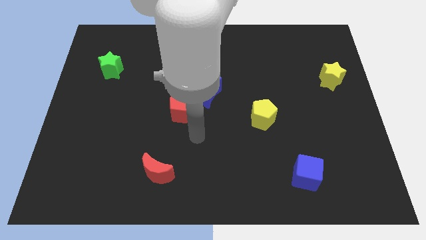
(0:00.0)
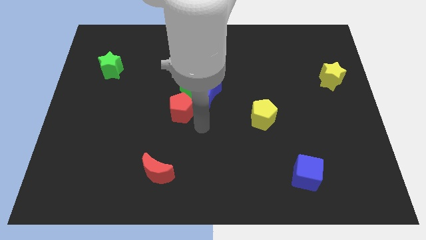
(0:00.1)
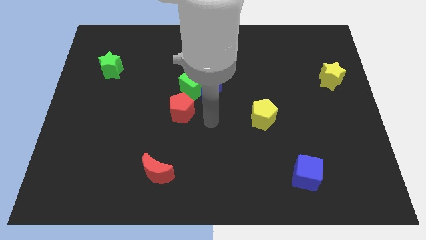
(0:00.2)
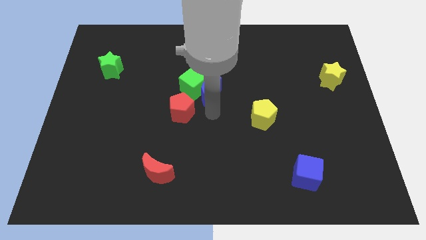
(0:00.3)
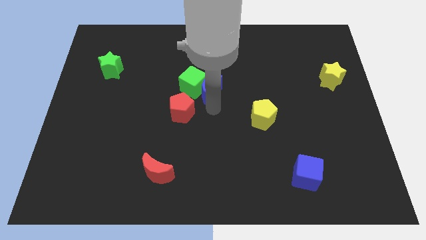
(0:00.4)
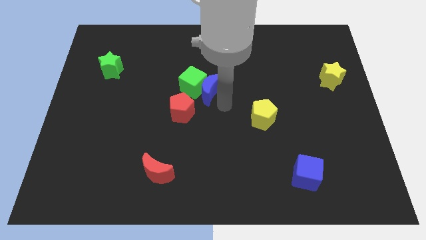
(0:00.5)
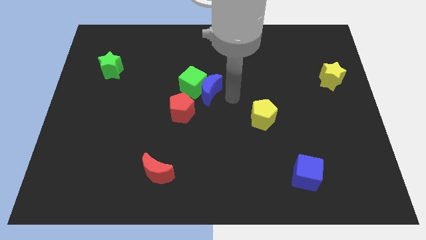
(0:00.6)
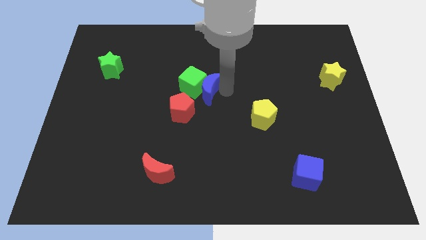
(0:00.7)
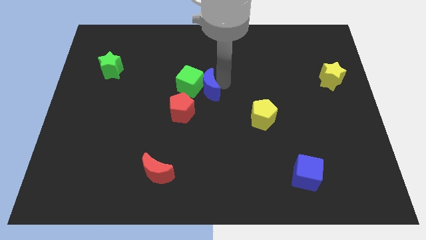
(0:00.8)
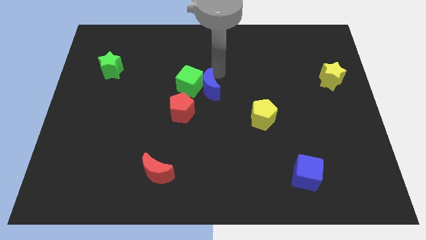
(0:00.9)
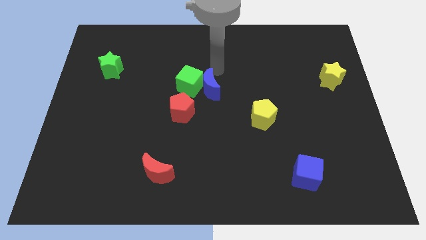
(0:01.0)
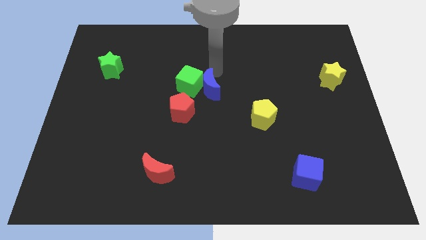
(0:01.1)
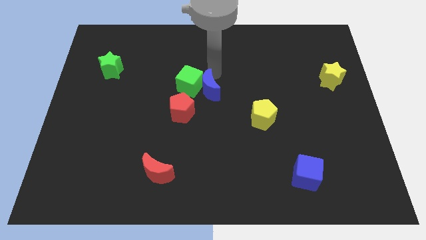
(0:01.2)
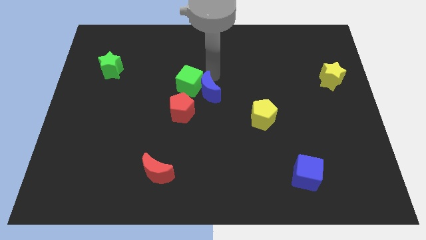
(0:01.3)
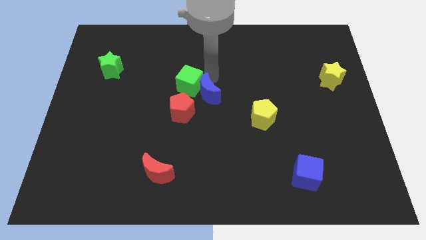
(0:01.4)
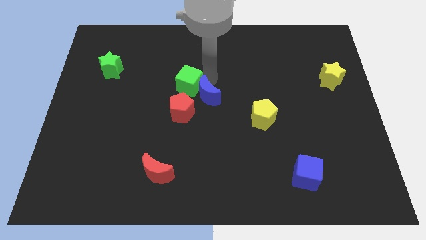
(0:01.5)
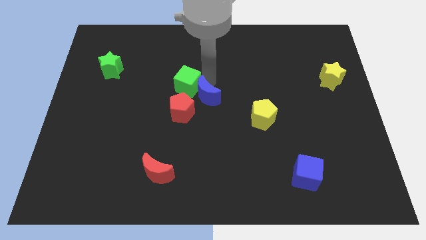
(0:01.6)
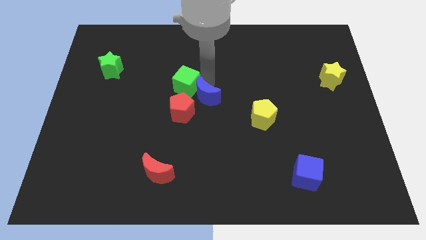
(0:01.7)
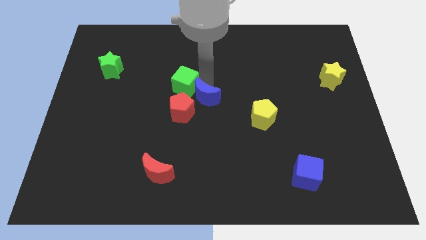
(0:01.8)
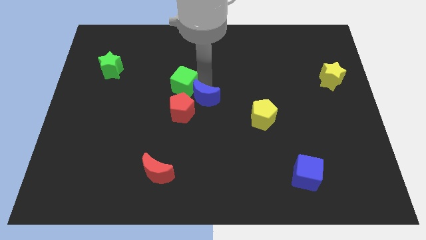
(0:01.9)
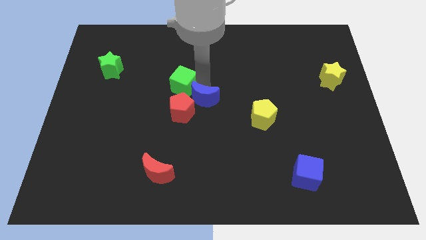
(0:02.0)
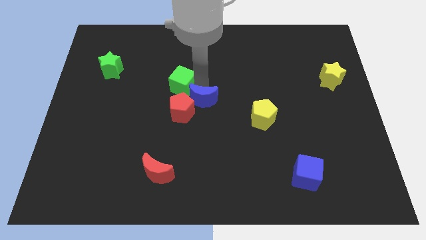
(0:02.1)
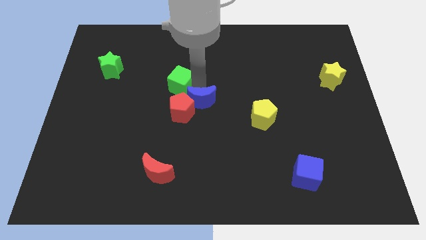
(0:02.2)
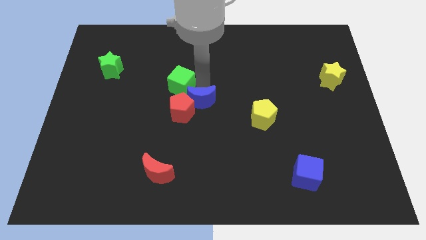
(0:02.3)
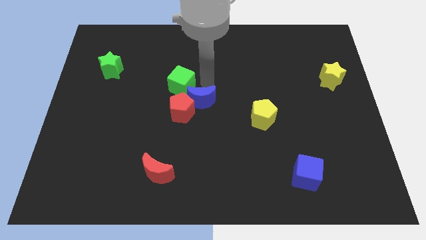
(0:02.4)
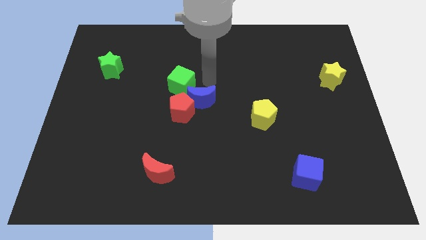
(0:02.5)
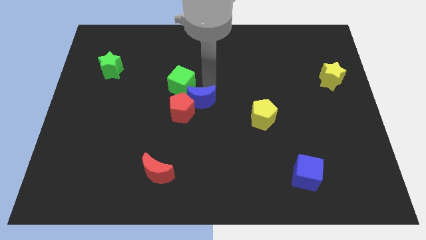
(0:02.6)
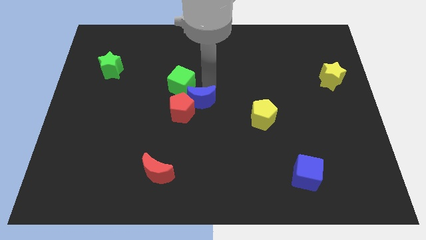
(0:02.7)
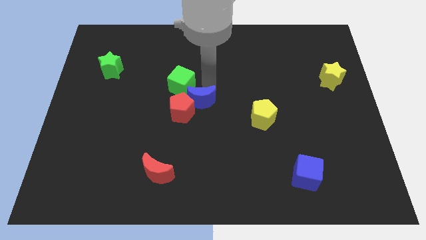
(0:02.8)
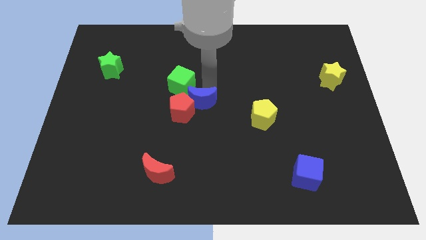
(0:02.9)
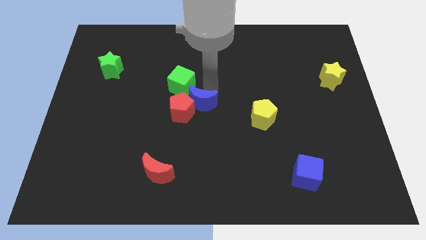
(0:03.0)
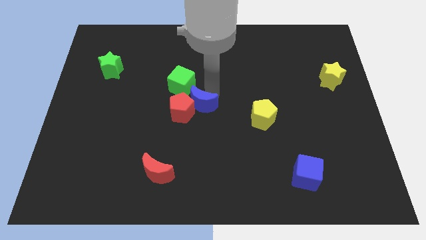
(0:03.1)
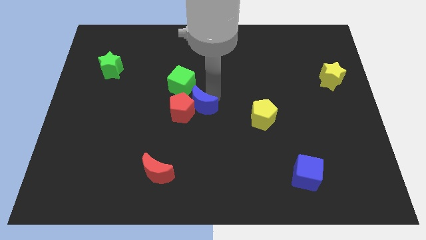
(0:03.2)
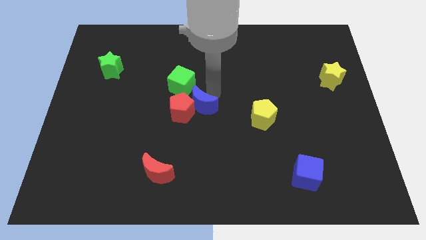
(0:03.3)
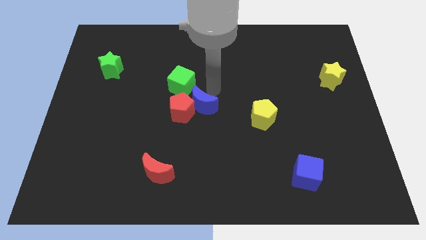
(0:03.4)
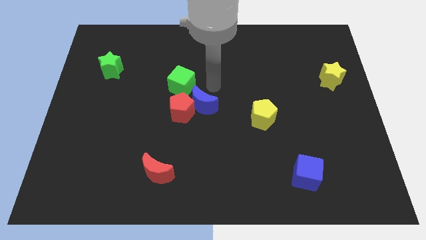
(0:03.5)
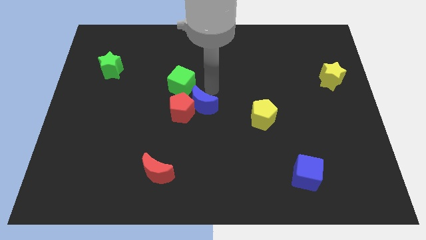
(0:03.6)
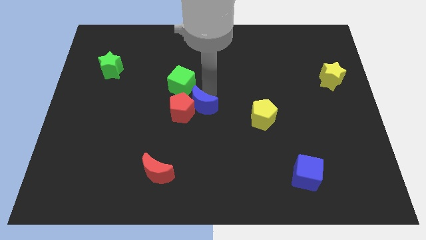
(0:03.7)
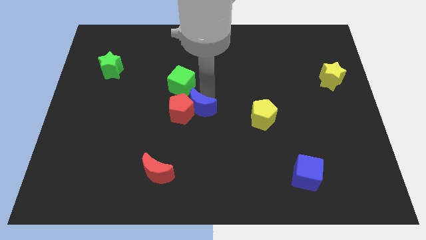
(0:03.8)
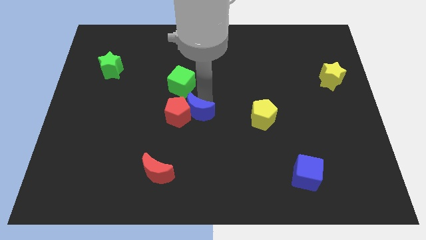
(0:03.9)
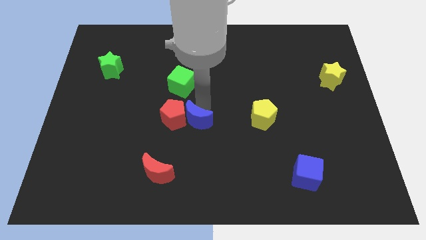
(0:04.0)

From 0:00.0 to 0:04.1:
push the blue moon a little bit diagonally downwards and left

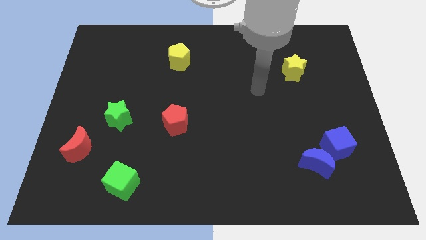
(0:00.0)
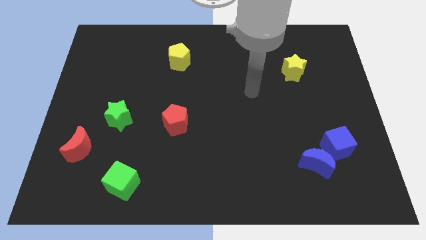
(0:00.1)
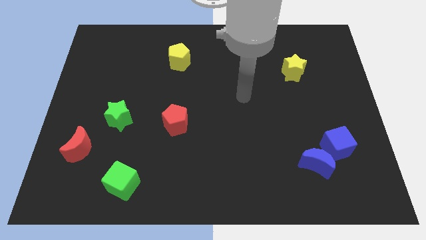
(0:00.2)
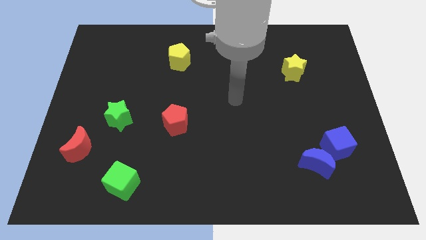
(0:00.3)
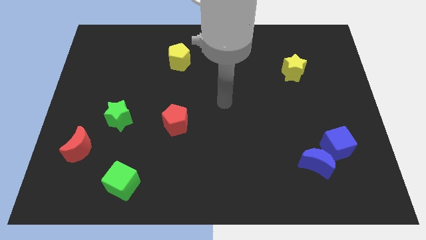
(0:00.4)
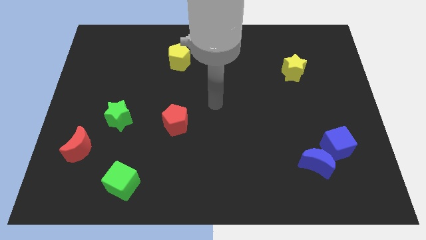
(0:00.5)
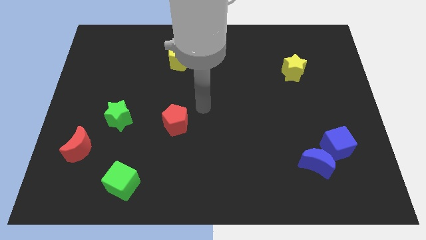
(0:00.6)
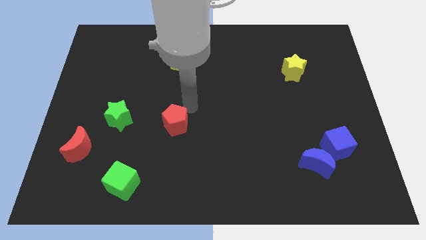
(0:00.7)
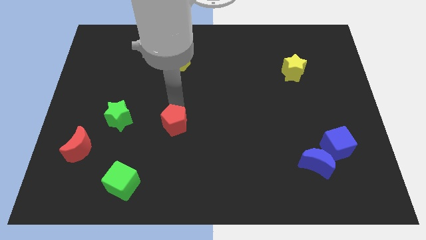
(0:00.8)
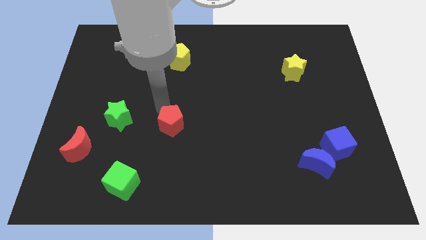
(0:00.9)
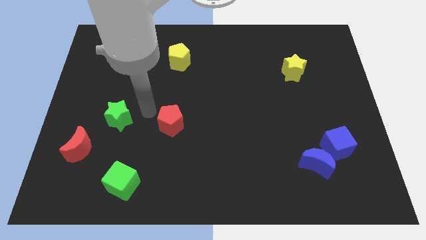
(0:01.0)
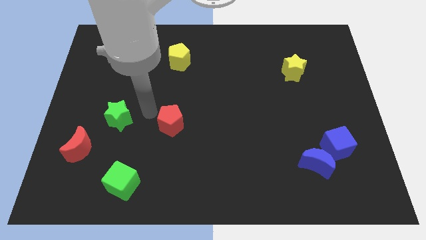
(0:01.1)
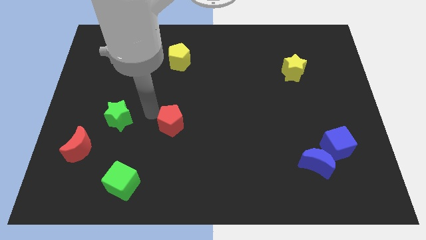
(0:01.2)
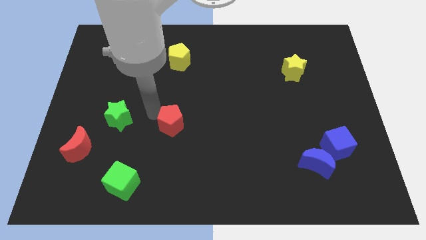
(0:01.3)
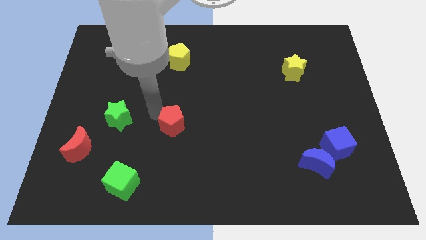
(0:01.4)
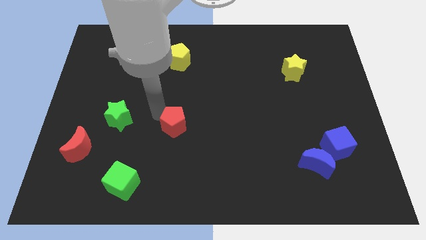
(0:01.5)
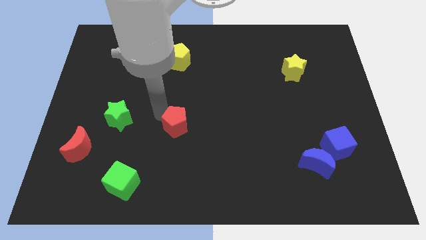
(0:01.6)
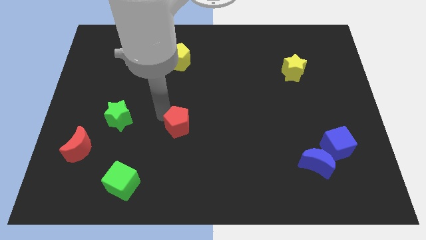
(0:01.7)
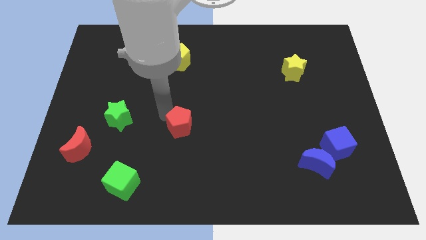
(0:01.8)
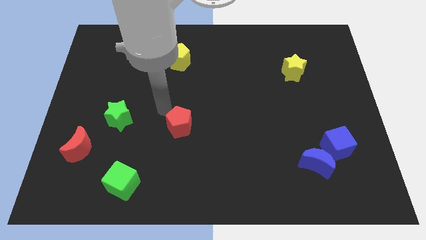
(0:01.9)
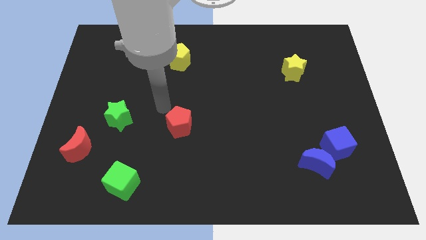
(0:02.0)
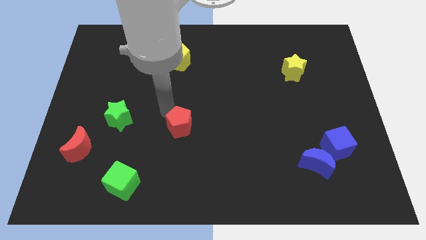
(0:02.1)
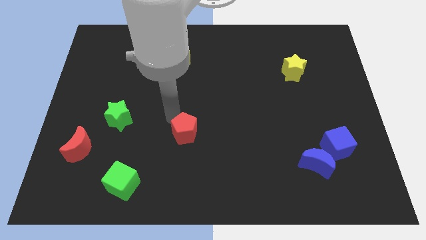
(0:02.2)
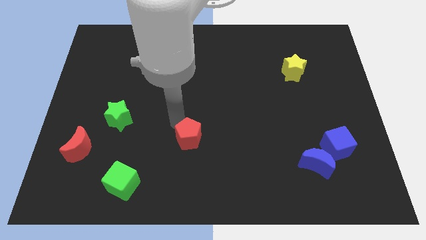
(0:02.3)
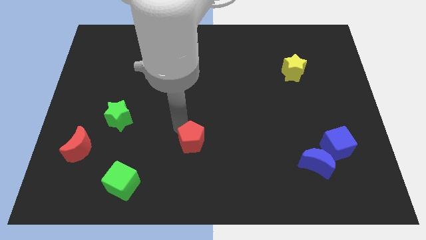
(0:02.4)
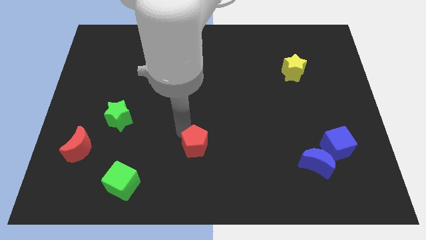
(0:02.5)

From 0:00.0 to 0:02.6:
push the red pentagon down and to the right diagonally a little

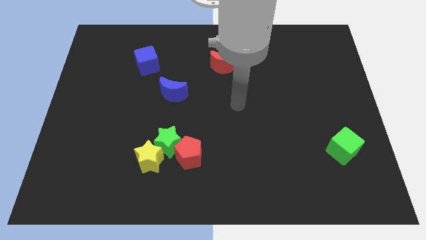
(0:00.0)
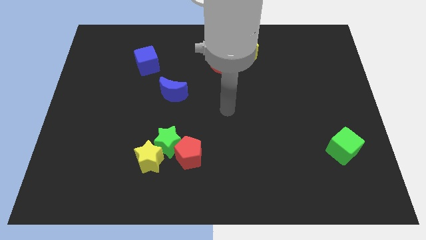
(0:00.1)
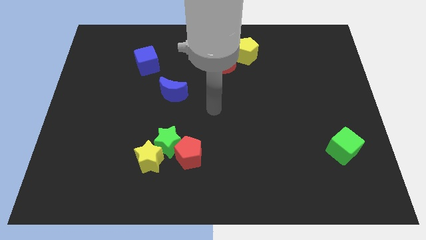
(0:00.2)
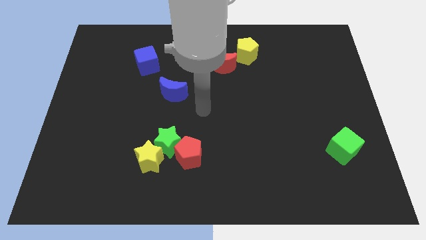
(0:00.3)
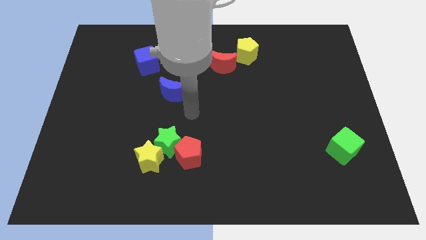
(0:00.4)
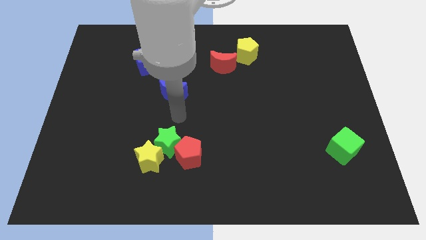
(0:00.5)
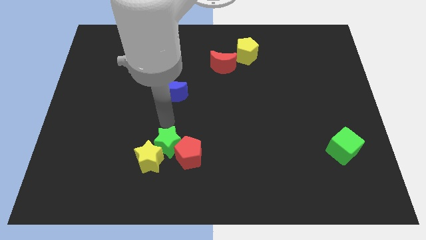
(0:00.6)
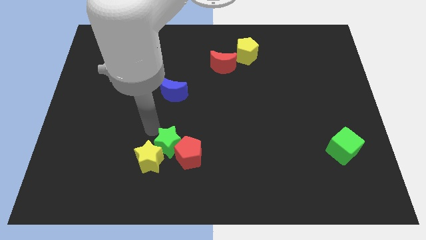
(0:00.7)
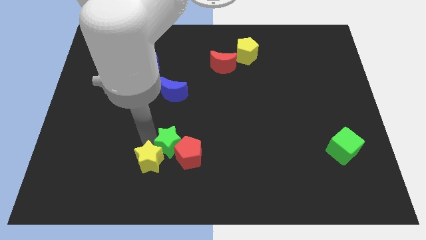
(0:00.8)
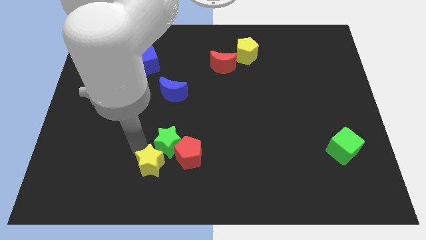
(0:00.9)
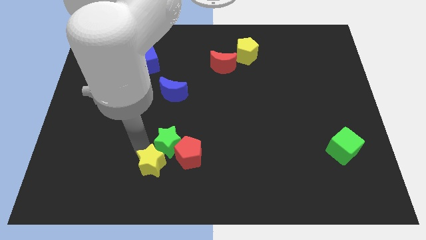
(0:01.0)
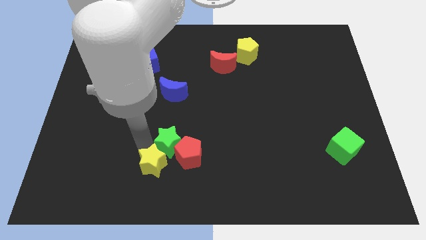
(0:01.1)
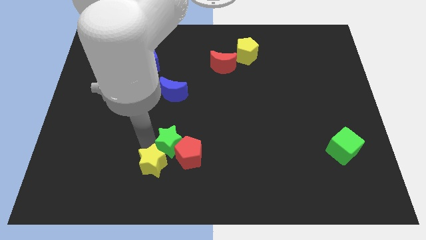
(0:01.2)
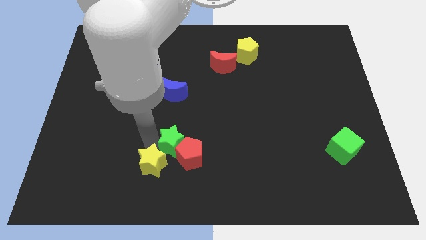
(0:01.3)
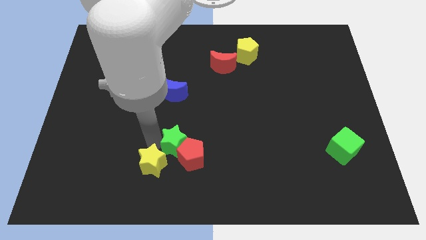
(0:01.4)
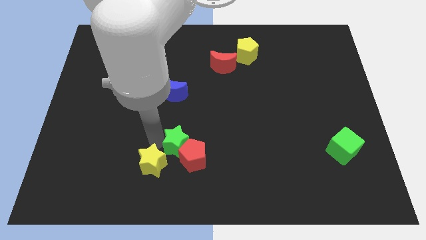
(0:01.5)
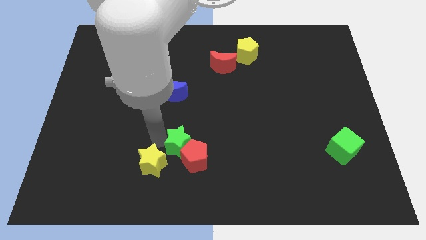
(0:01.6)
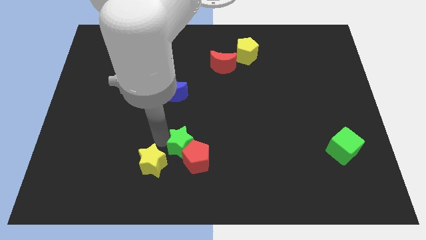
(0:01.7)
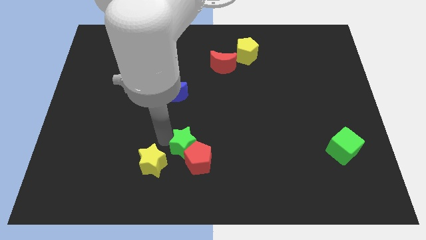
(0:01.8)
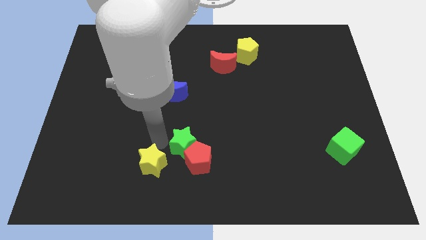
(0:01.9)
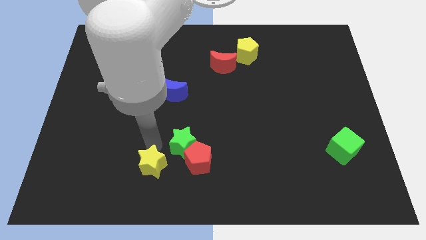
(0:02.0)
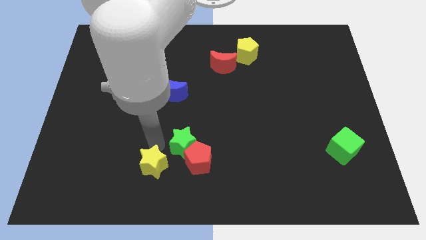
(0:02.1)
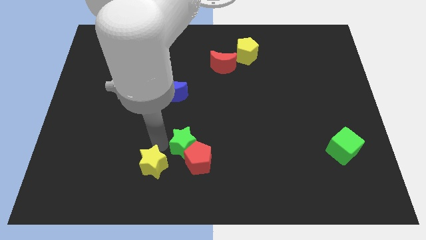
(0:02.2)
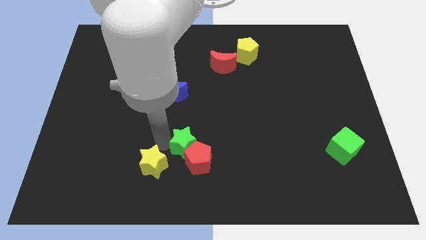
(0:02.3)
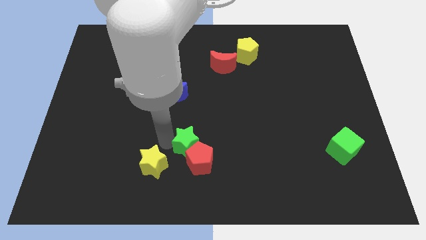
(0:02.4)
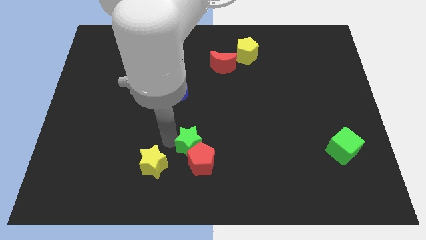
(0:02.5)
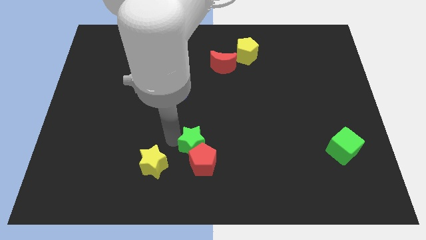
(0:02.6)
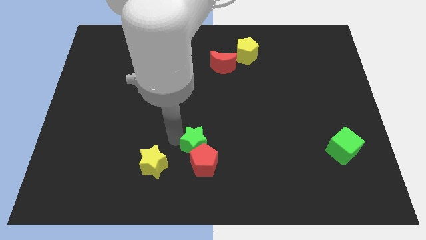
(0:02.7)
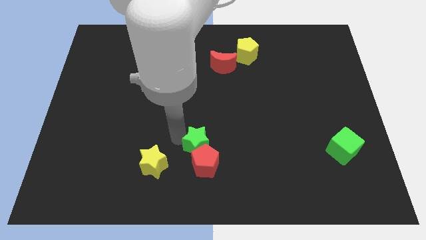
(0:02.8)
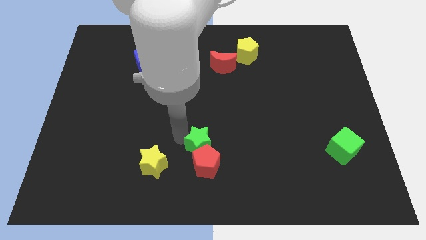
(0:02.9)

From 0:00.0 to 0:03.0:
move the green star somewhat to the right
